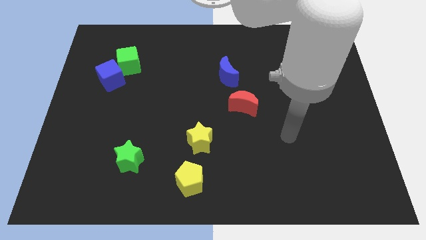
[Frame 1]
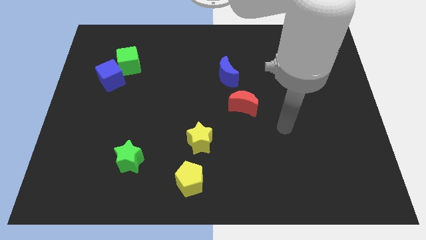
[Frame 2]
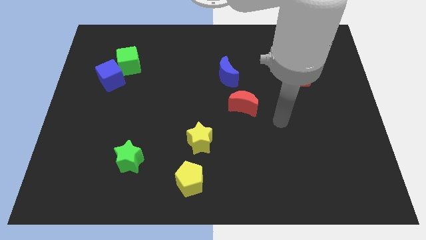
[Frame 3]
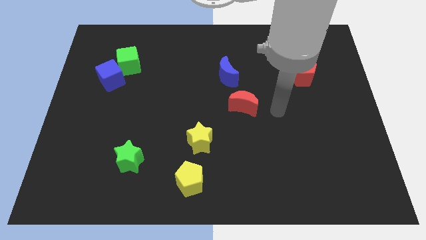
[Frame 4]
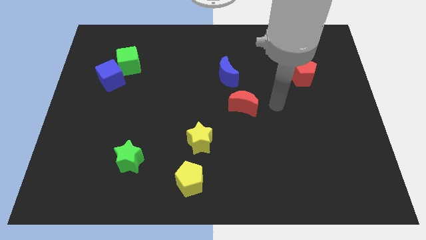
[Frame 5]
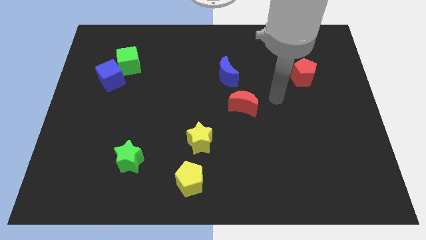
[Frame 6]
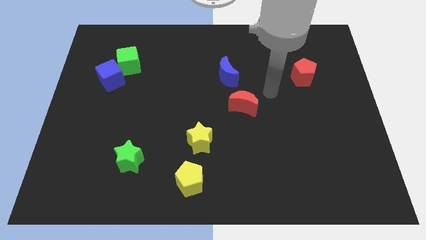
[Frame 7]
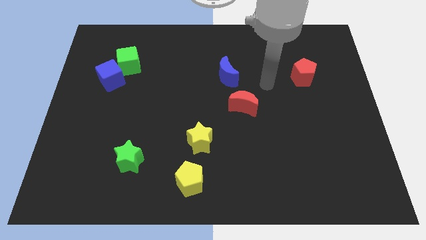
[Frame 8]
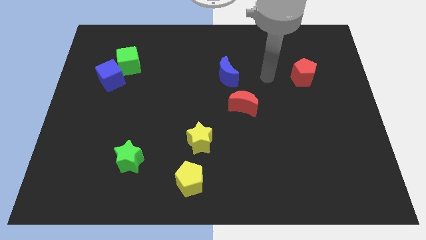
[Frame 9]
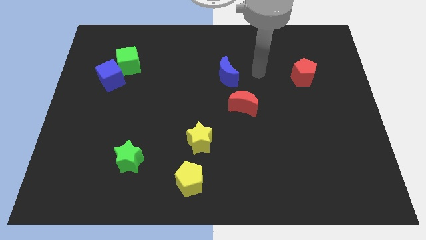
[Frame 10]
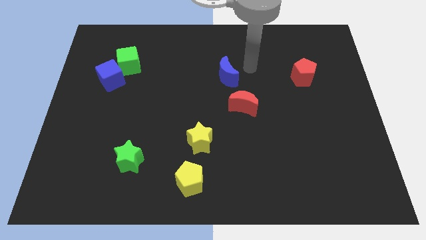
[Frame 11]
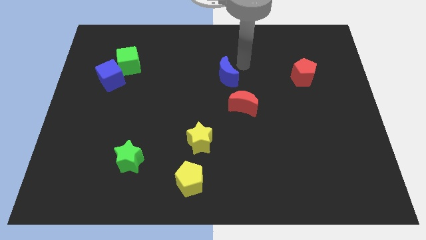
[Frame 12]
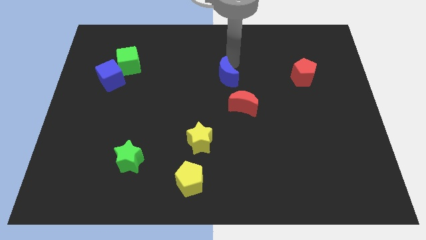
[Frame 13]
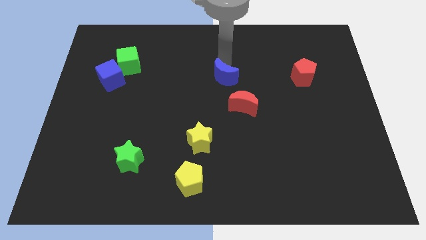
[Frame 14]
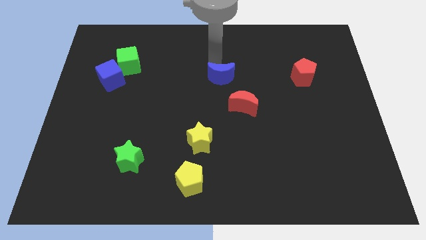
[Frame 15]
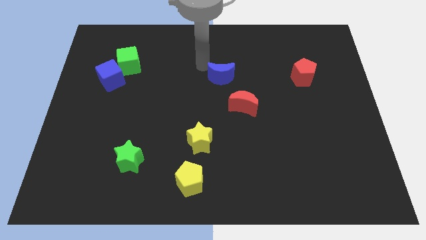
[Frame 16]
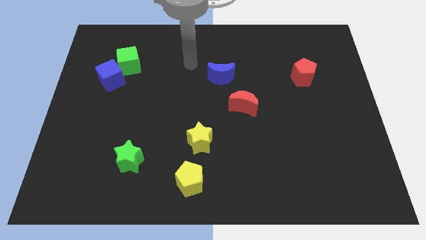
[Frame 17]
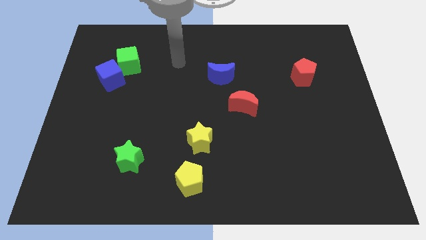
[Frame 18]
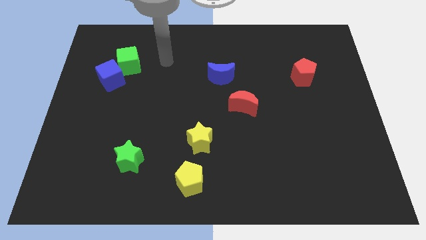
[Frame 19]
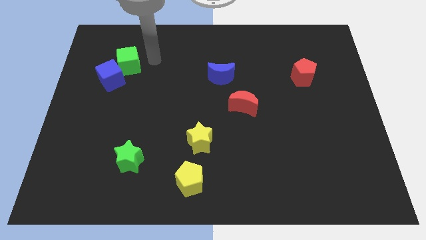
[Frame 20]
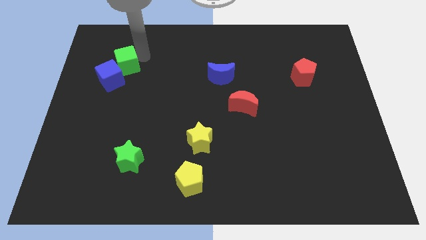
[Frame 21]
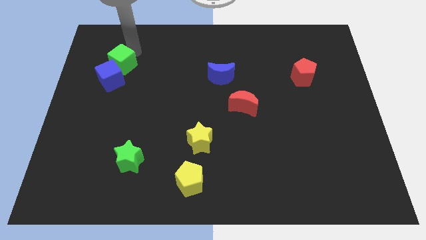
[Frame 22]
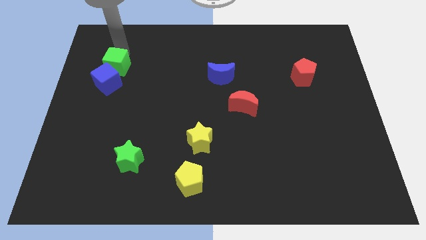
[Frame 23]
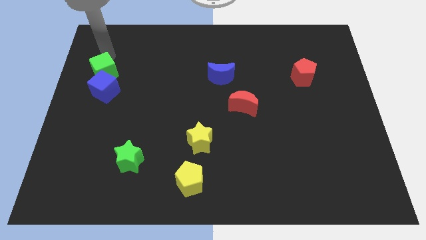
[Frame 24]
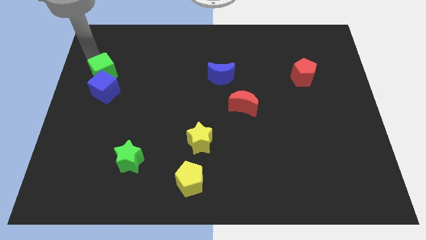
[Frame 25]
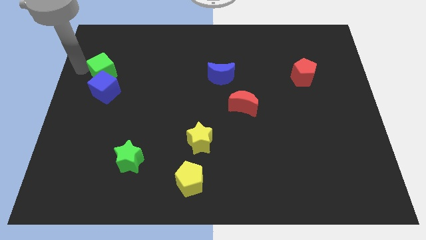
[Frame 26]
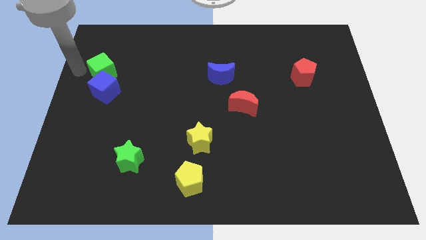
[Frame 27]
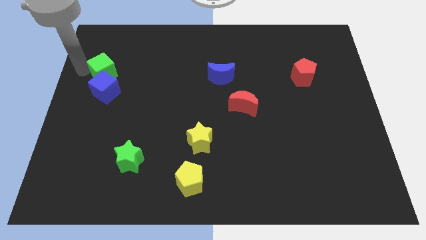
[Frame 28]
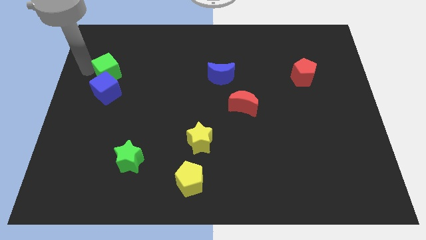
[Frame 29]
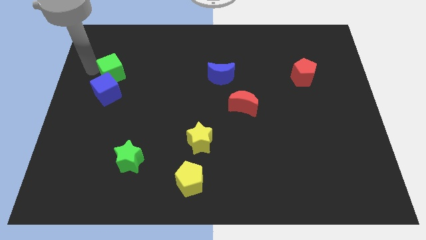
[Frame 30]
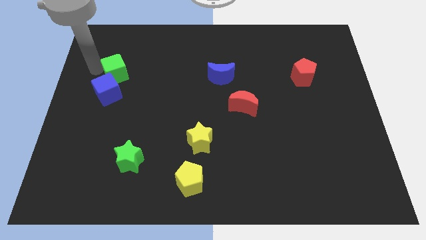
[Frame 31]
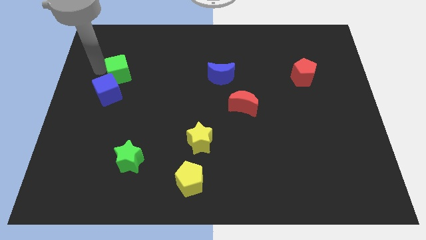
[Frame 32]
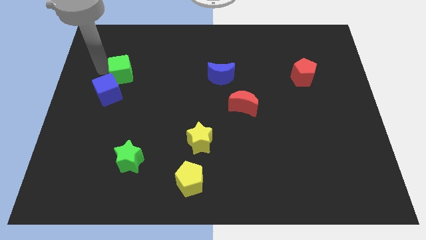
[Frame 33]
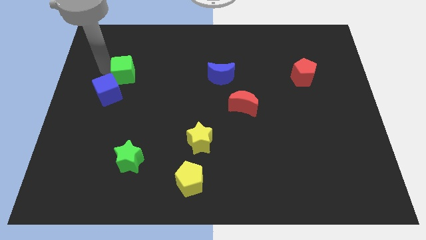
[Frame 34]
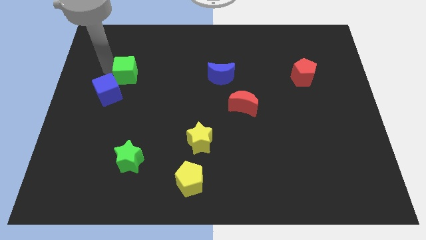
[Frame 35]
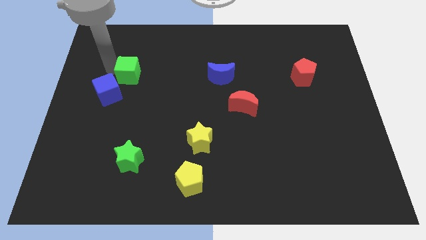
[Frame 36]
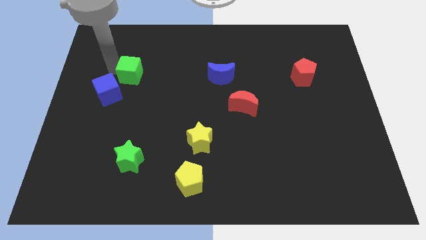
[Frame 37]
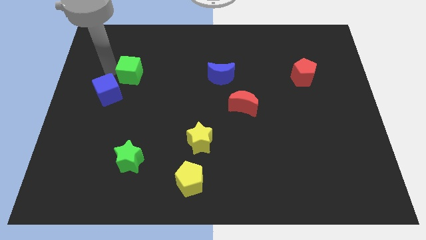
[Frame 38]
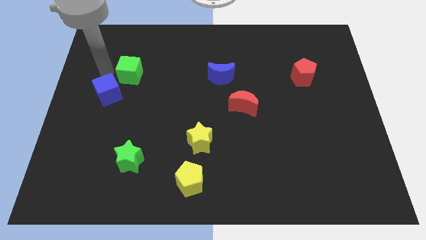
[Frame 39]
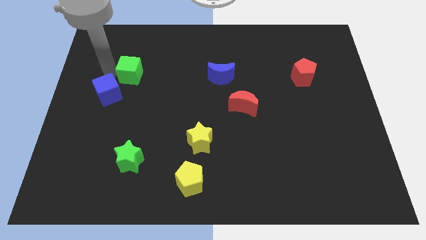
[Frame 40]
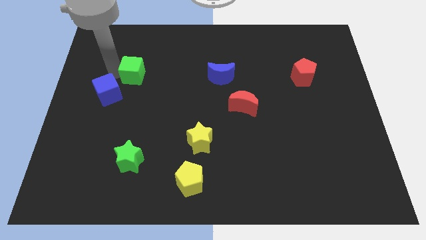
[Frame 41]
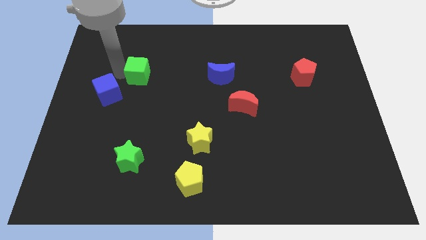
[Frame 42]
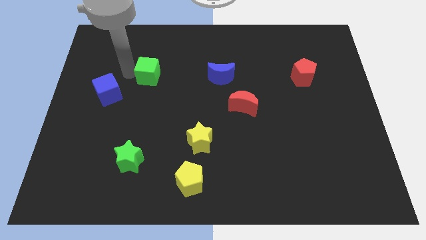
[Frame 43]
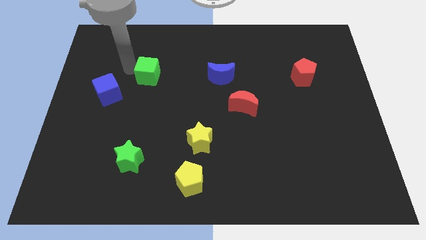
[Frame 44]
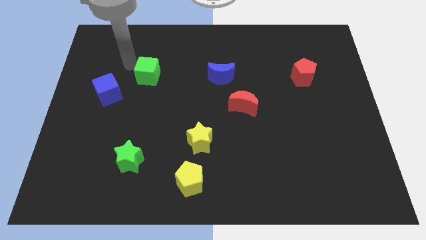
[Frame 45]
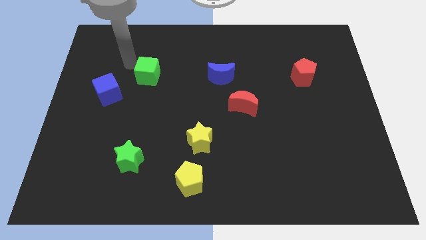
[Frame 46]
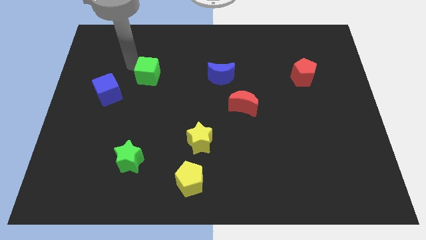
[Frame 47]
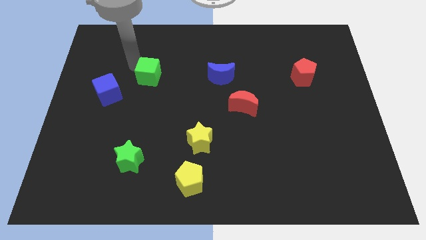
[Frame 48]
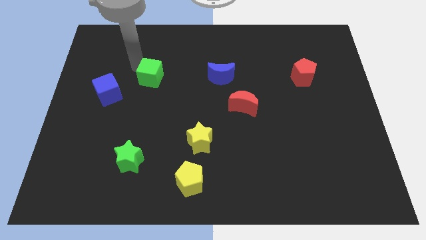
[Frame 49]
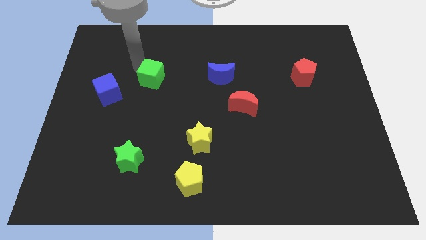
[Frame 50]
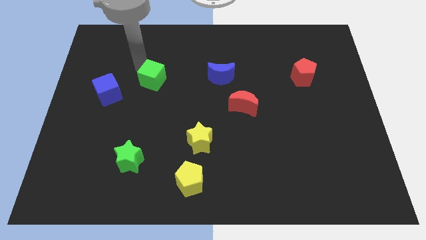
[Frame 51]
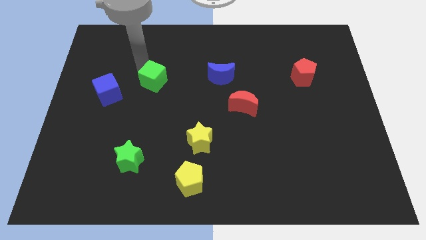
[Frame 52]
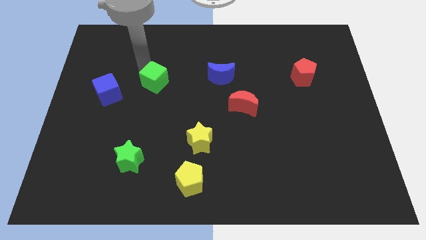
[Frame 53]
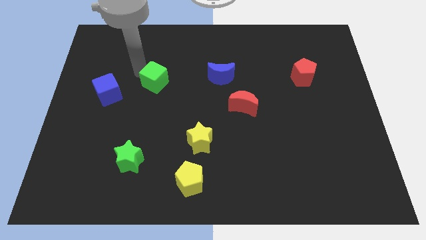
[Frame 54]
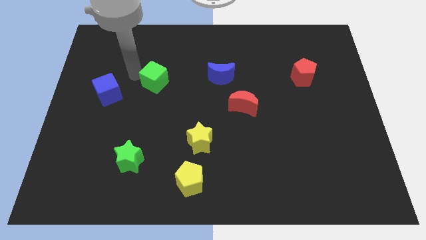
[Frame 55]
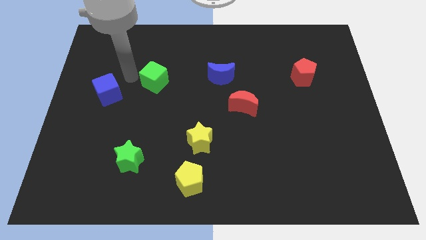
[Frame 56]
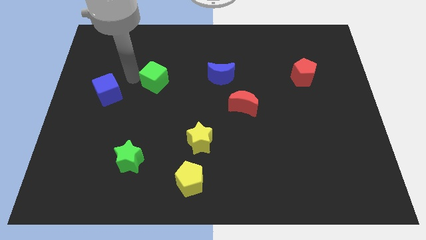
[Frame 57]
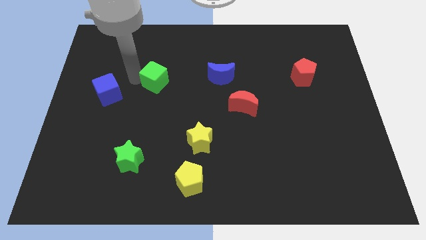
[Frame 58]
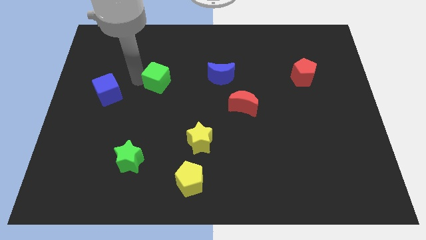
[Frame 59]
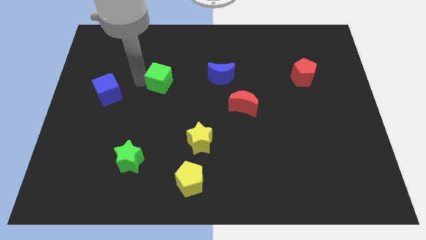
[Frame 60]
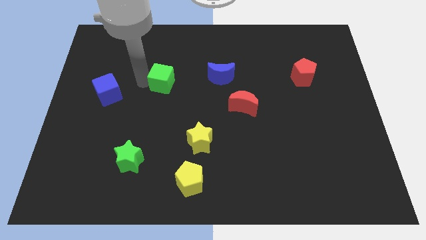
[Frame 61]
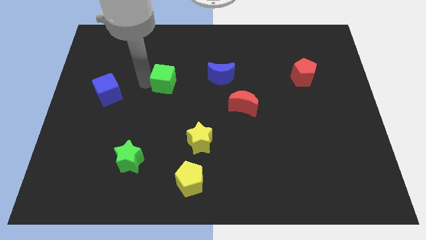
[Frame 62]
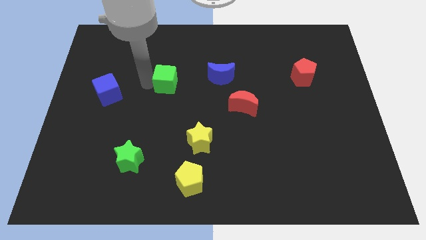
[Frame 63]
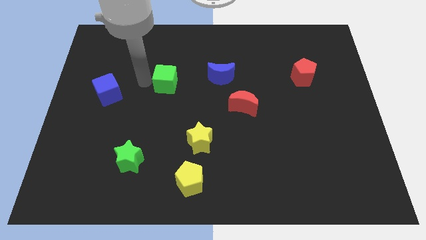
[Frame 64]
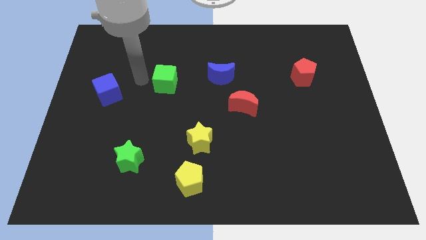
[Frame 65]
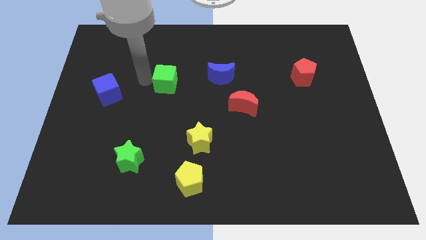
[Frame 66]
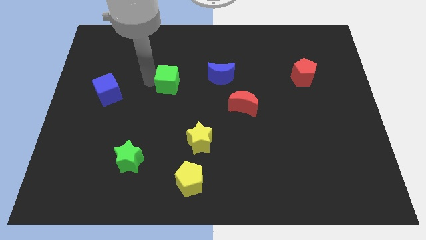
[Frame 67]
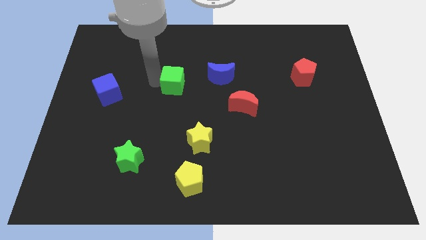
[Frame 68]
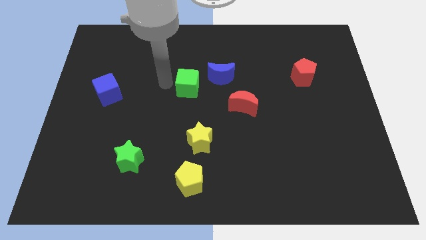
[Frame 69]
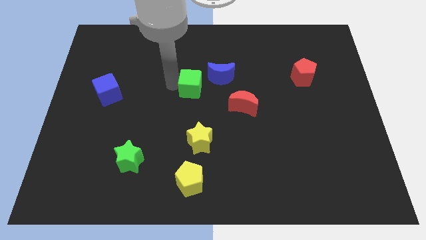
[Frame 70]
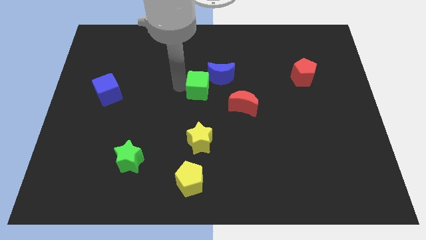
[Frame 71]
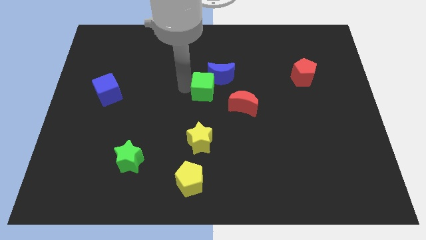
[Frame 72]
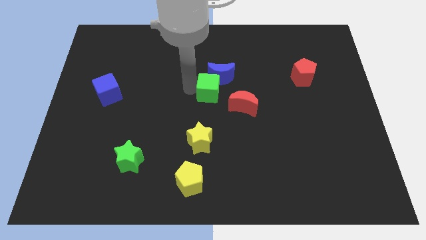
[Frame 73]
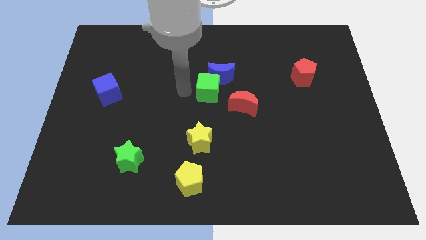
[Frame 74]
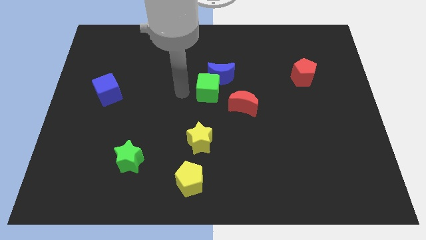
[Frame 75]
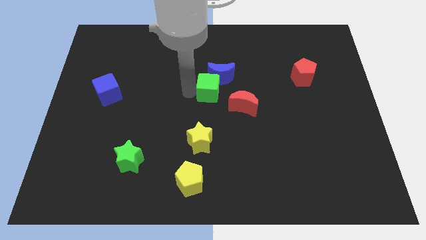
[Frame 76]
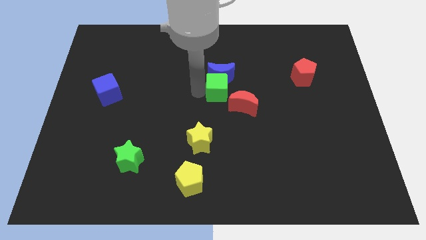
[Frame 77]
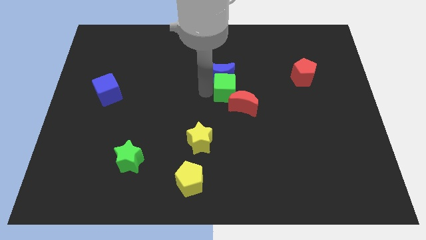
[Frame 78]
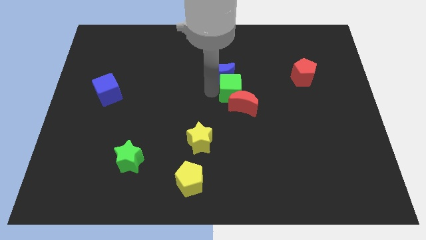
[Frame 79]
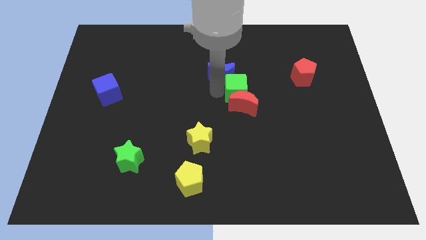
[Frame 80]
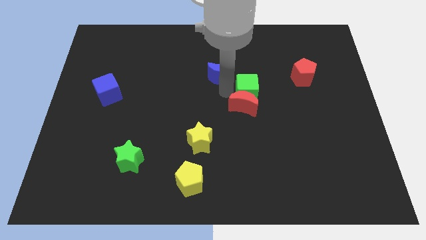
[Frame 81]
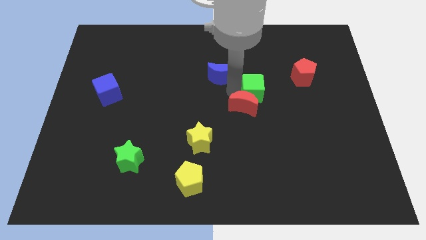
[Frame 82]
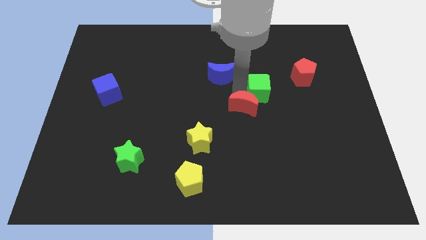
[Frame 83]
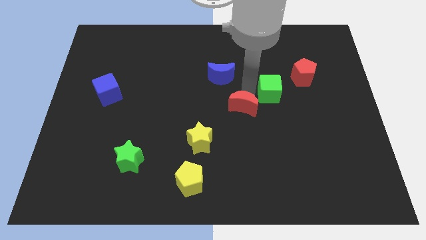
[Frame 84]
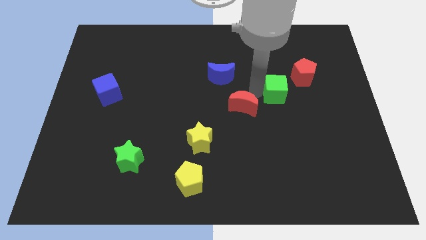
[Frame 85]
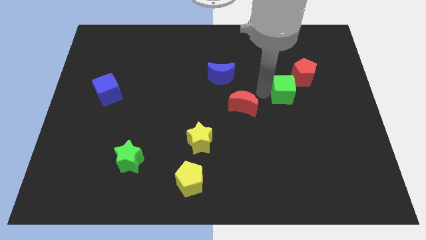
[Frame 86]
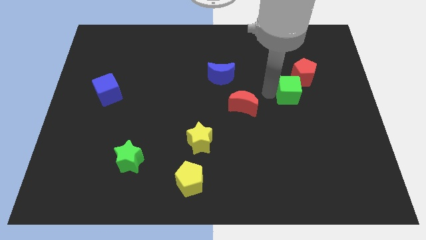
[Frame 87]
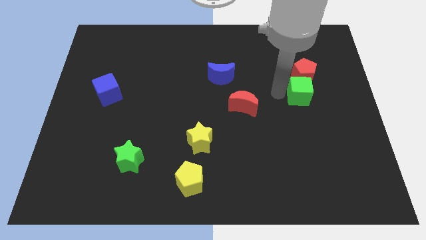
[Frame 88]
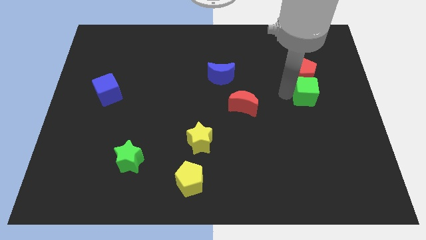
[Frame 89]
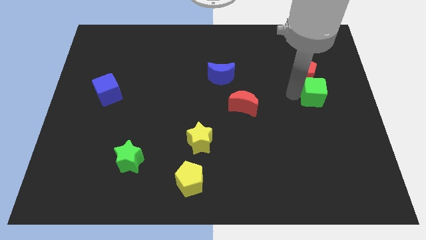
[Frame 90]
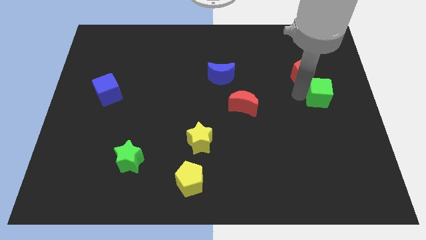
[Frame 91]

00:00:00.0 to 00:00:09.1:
put the green cube to the right side
